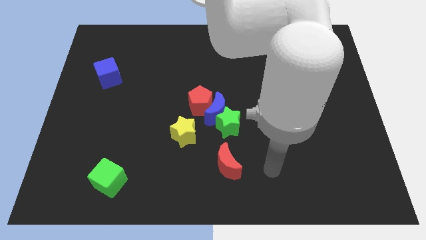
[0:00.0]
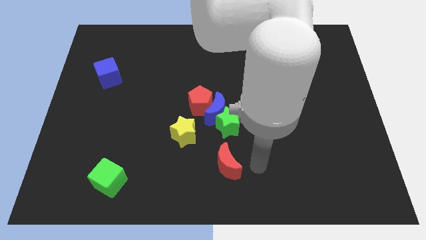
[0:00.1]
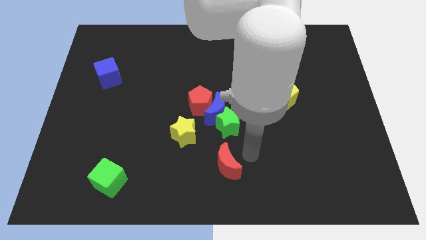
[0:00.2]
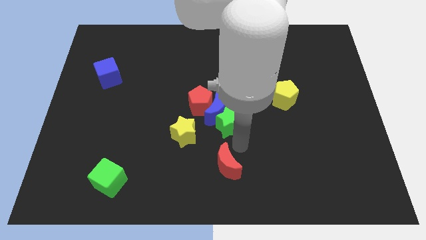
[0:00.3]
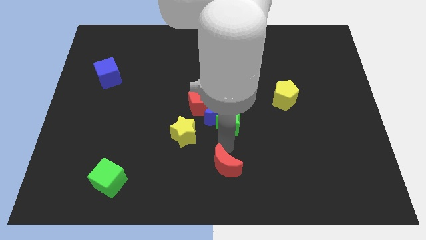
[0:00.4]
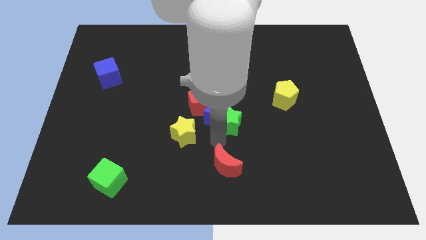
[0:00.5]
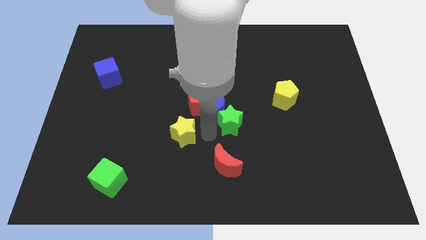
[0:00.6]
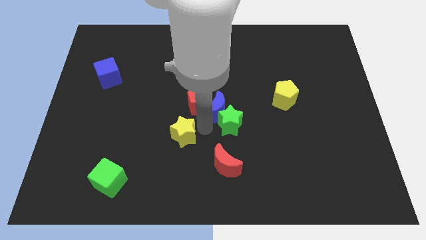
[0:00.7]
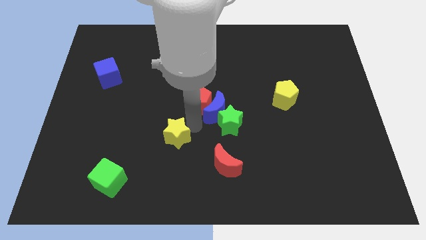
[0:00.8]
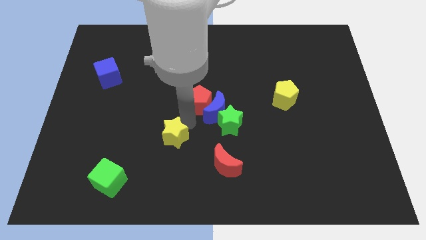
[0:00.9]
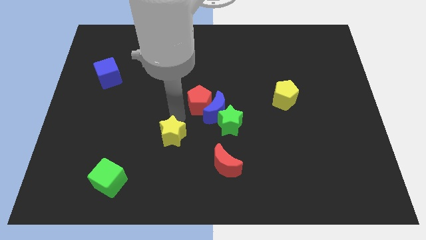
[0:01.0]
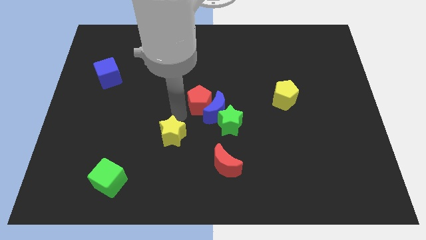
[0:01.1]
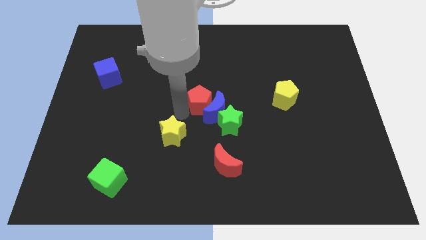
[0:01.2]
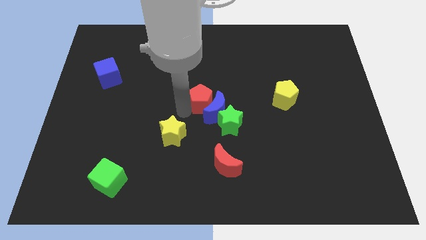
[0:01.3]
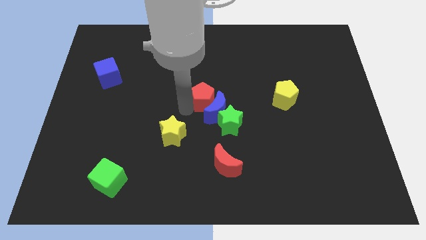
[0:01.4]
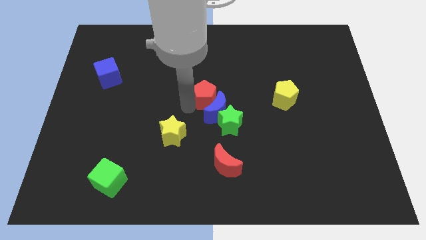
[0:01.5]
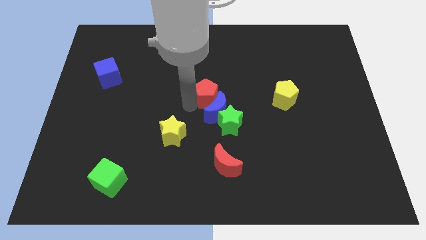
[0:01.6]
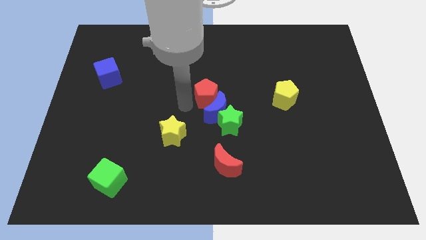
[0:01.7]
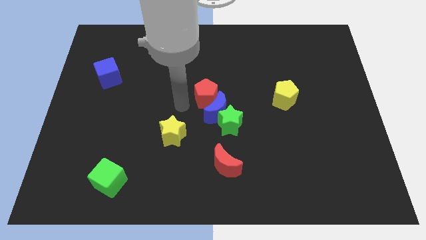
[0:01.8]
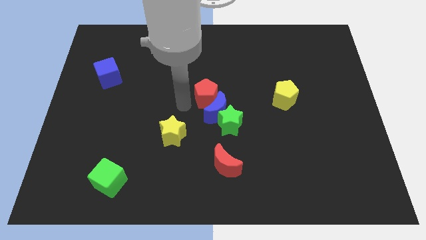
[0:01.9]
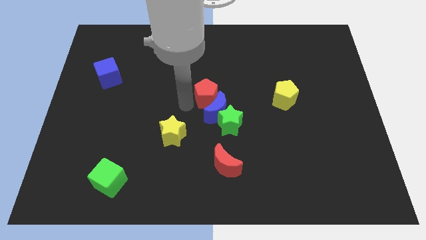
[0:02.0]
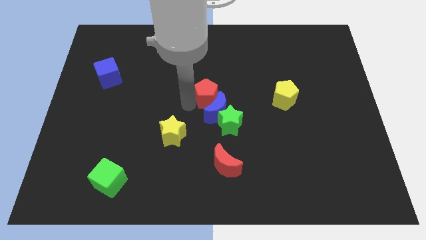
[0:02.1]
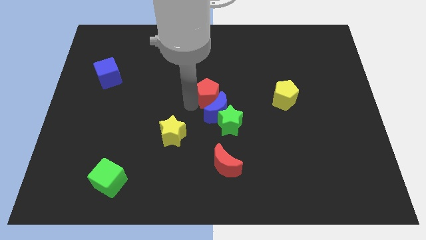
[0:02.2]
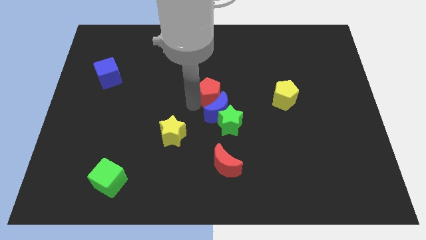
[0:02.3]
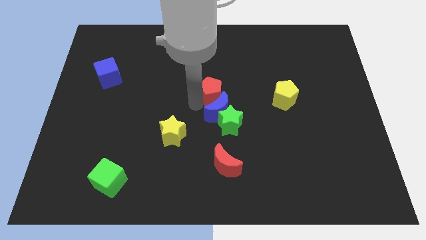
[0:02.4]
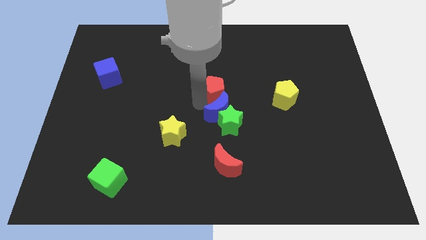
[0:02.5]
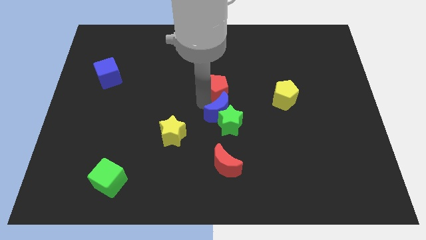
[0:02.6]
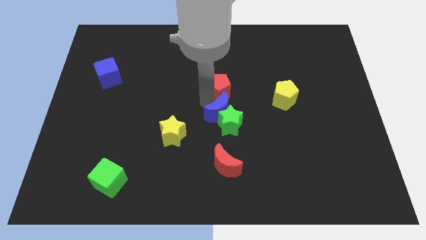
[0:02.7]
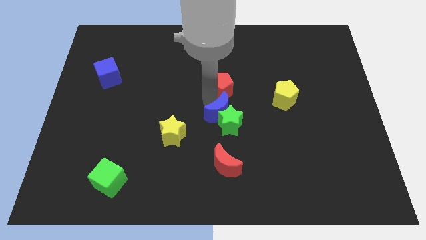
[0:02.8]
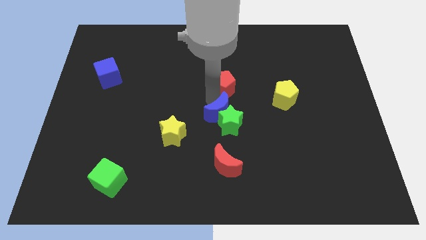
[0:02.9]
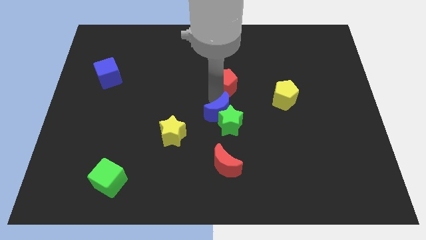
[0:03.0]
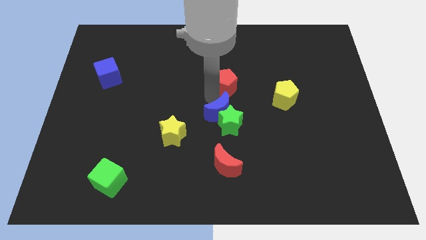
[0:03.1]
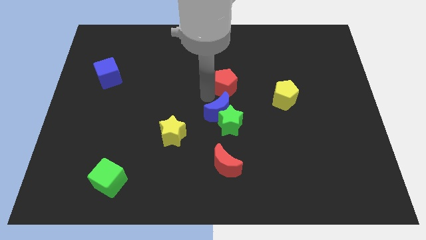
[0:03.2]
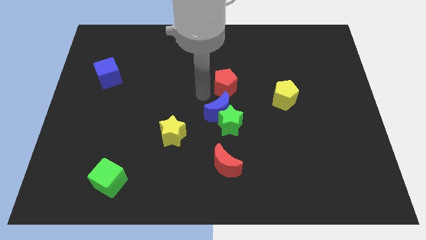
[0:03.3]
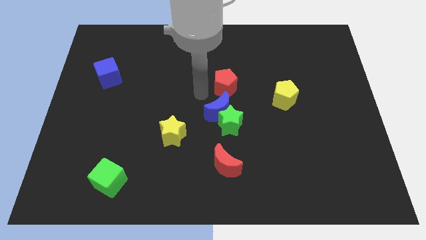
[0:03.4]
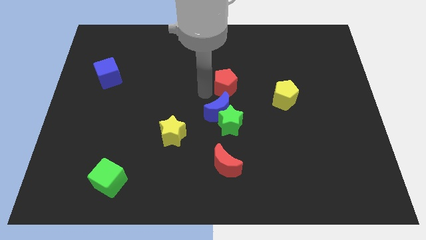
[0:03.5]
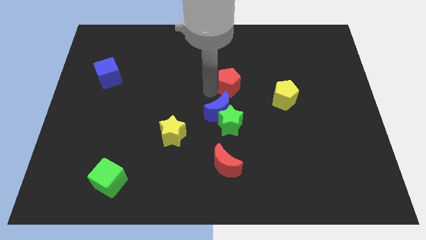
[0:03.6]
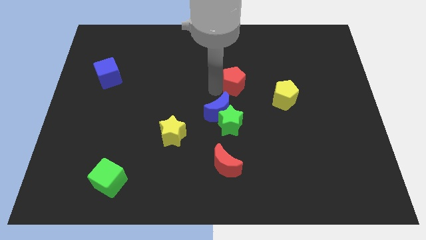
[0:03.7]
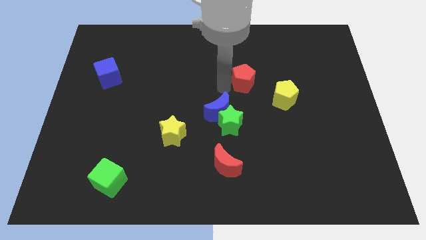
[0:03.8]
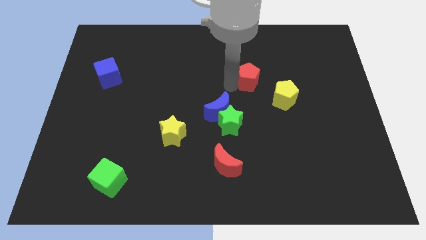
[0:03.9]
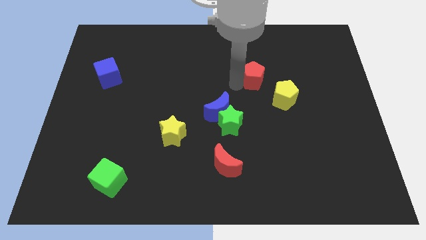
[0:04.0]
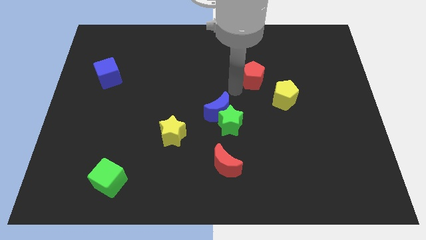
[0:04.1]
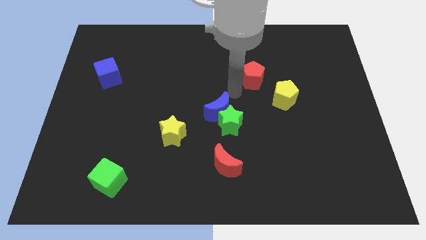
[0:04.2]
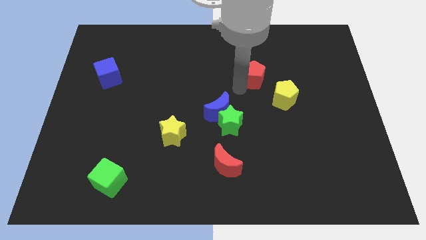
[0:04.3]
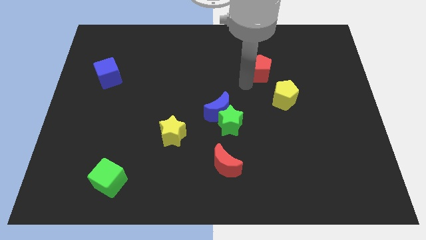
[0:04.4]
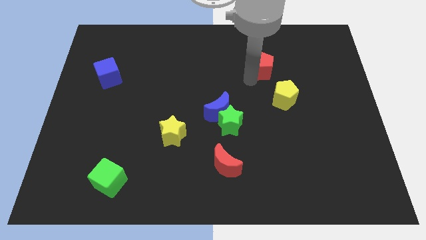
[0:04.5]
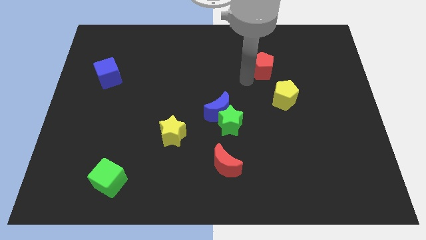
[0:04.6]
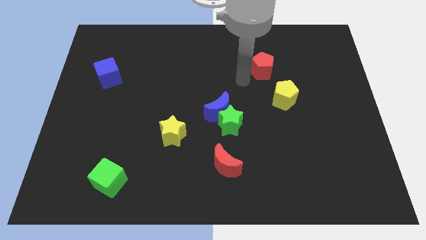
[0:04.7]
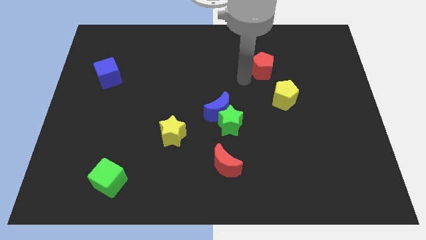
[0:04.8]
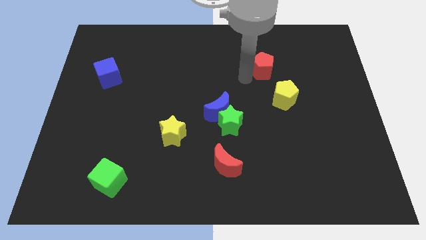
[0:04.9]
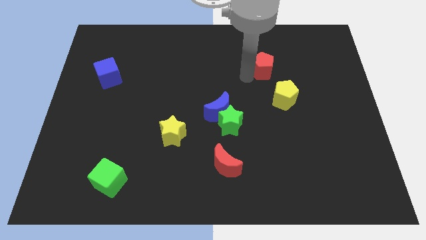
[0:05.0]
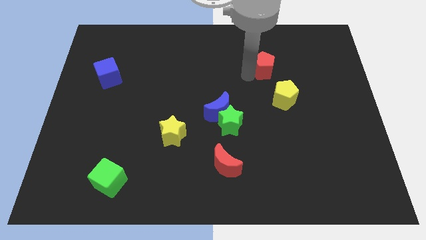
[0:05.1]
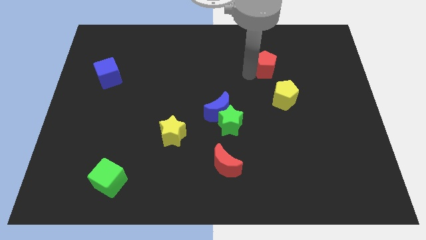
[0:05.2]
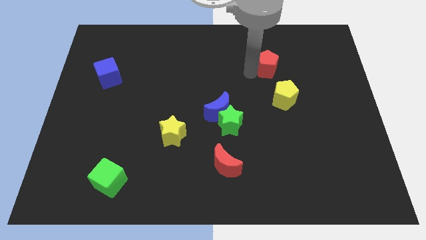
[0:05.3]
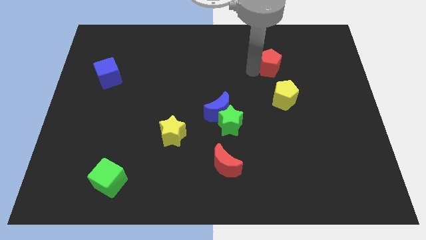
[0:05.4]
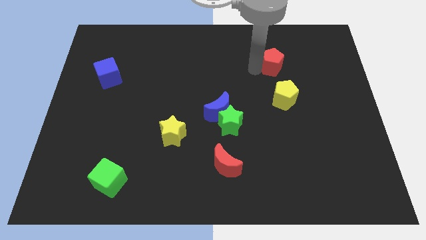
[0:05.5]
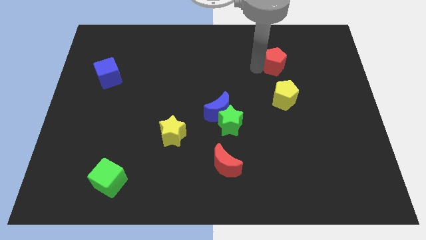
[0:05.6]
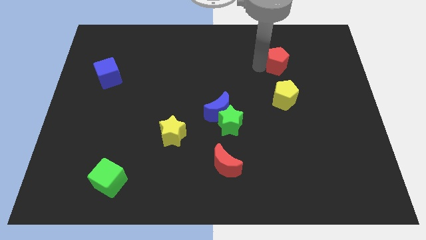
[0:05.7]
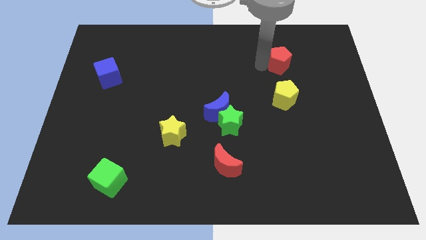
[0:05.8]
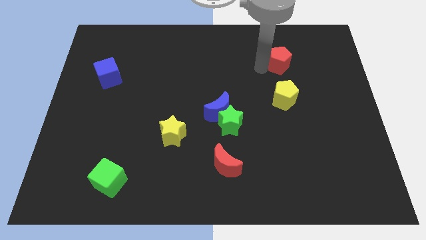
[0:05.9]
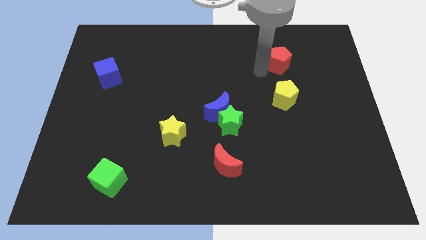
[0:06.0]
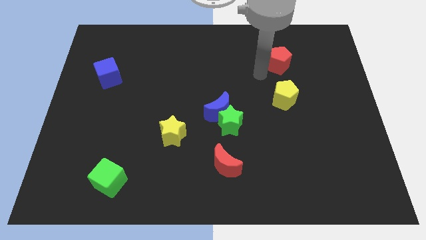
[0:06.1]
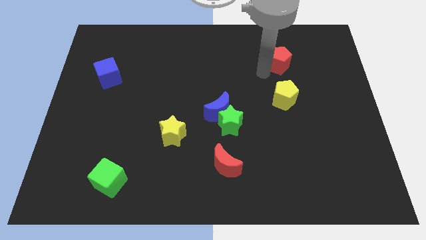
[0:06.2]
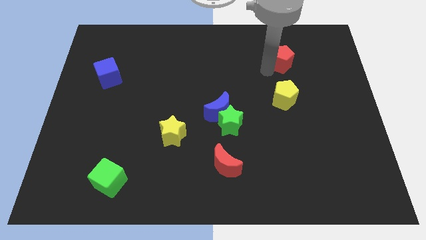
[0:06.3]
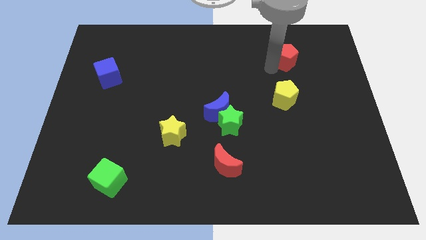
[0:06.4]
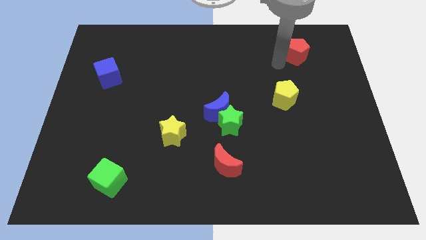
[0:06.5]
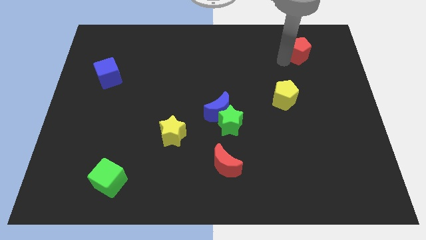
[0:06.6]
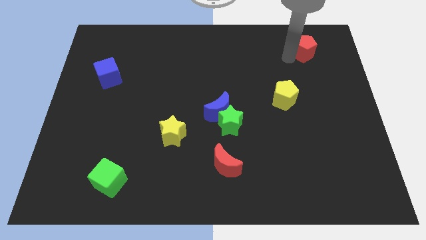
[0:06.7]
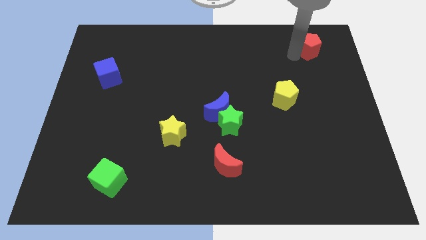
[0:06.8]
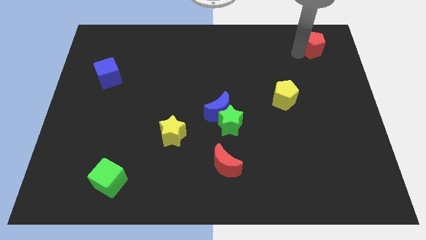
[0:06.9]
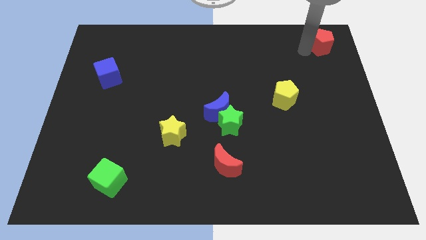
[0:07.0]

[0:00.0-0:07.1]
move the red pentagon to the top right
